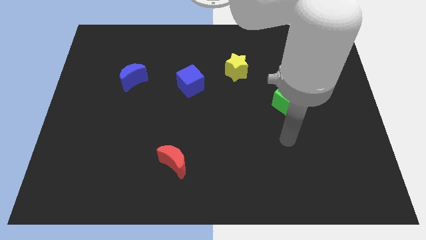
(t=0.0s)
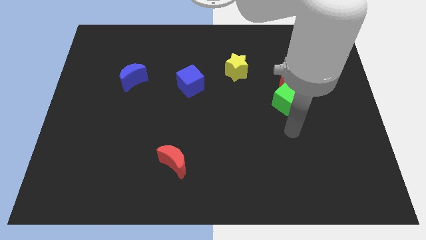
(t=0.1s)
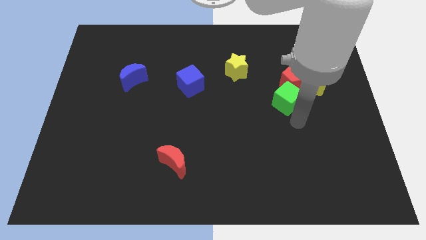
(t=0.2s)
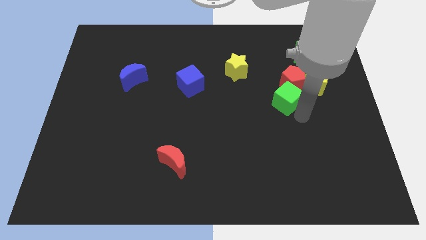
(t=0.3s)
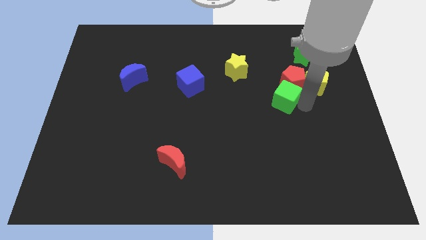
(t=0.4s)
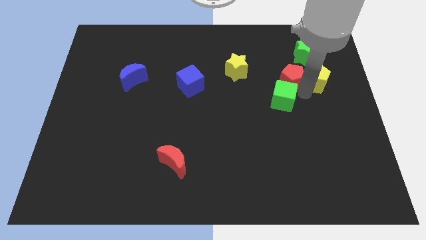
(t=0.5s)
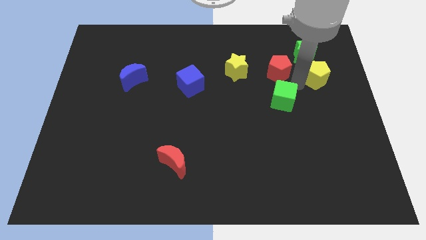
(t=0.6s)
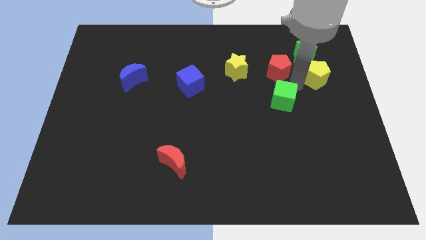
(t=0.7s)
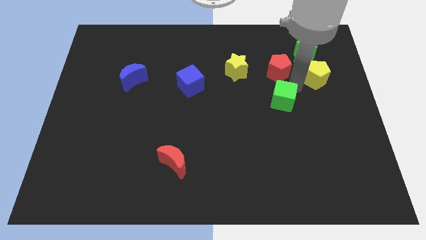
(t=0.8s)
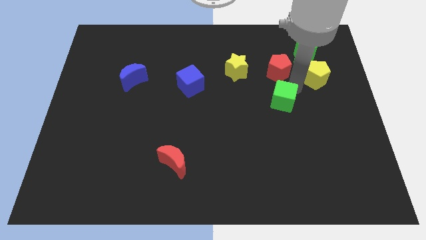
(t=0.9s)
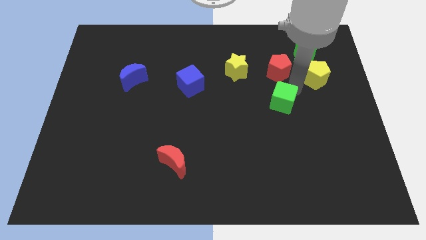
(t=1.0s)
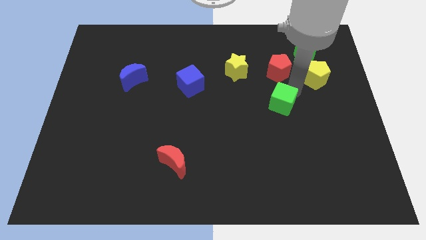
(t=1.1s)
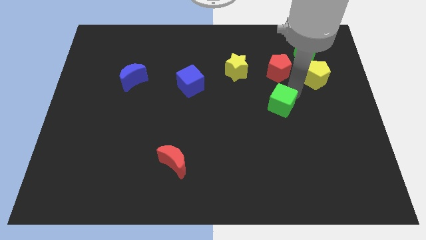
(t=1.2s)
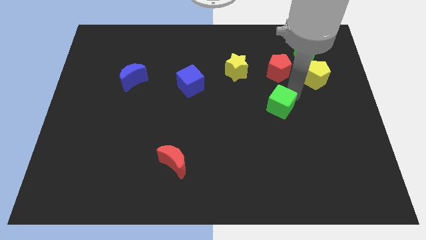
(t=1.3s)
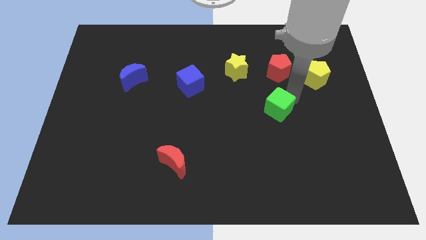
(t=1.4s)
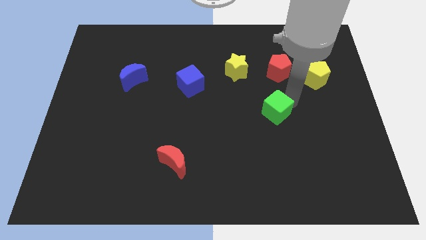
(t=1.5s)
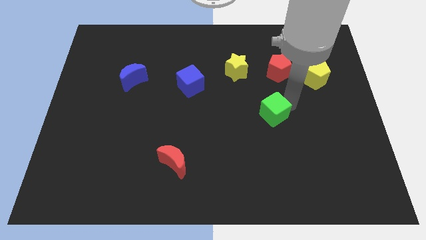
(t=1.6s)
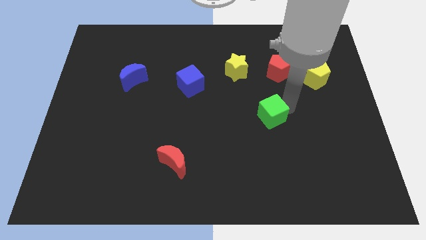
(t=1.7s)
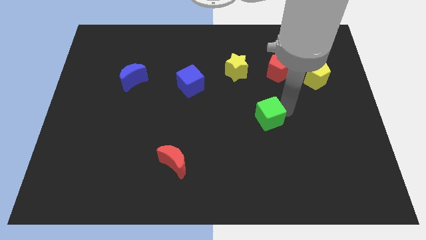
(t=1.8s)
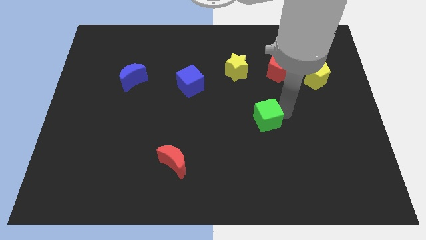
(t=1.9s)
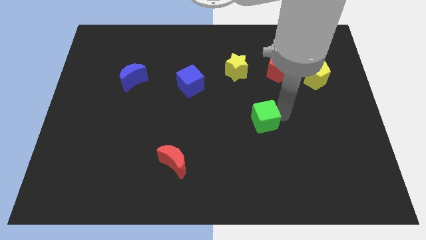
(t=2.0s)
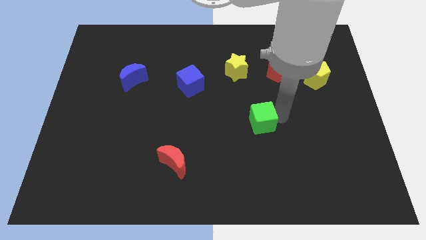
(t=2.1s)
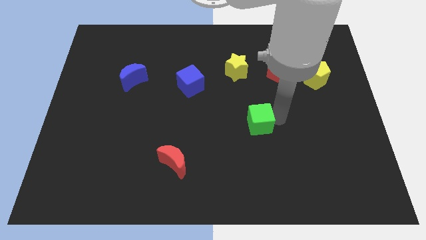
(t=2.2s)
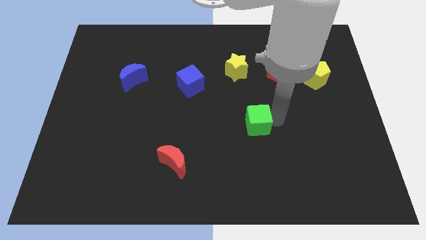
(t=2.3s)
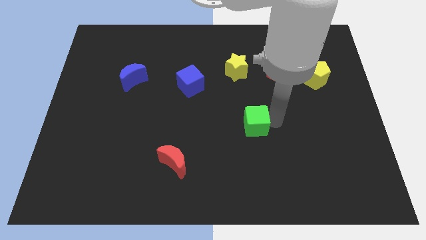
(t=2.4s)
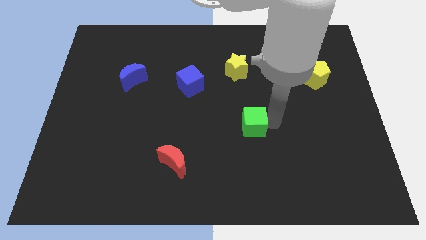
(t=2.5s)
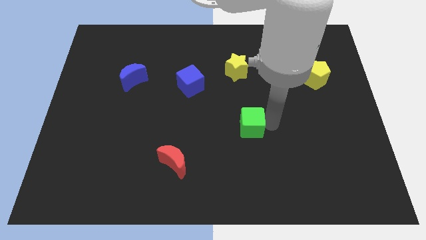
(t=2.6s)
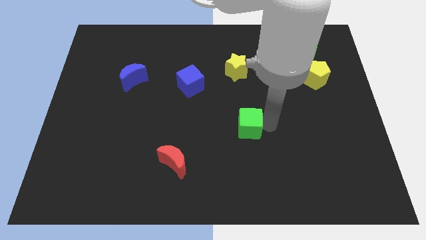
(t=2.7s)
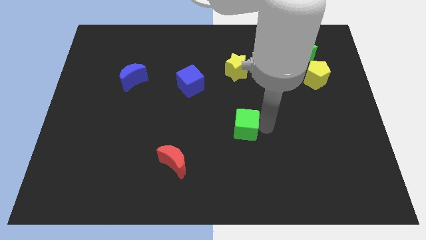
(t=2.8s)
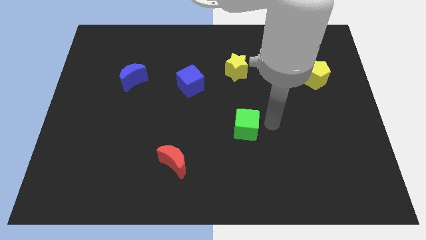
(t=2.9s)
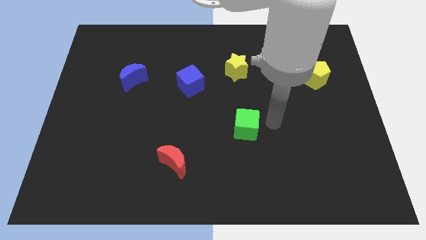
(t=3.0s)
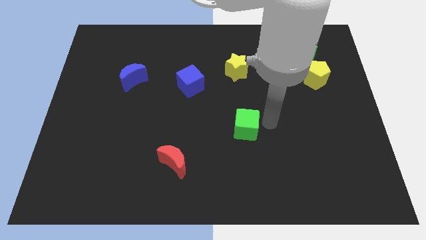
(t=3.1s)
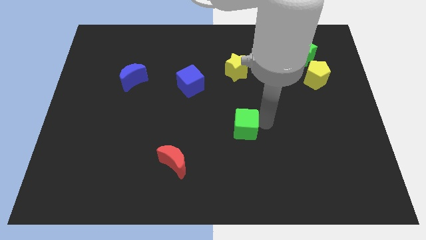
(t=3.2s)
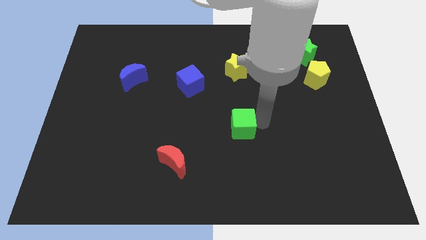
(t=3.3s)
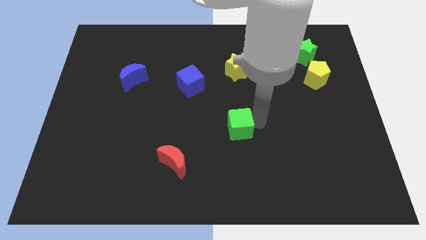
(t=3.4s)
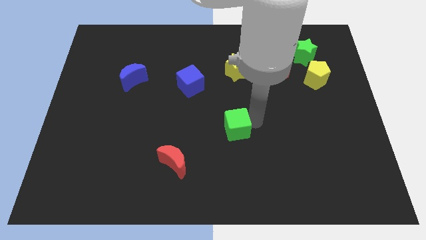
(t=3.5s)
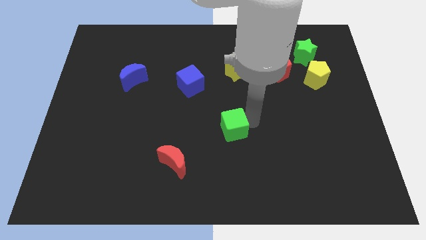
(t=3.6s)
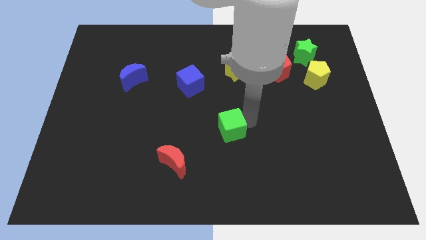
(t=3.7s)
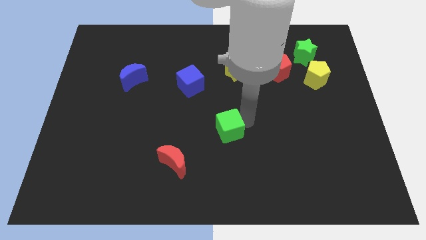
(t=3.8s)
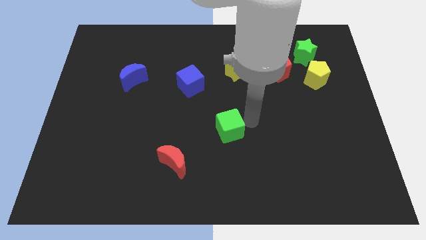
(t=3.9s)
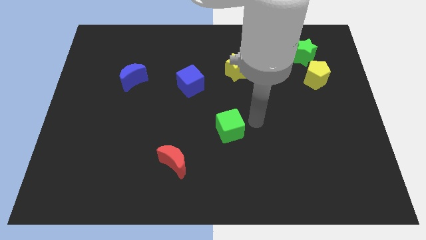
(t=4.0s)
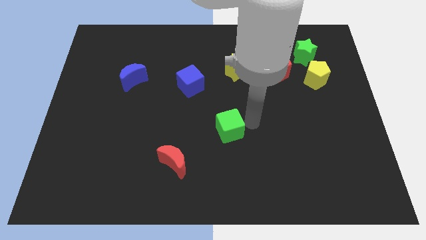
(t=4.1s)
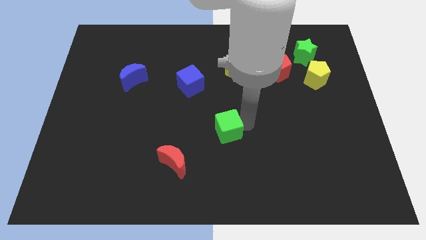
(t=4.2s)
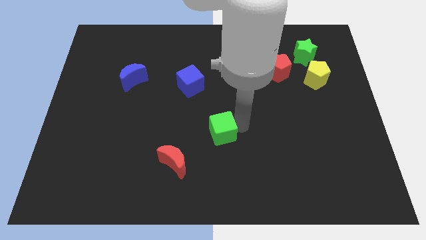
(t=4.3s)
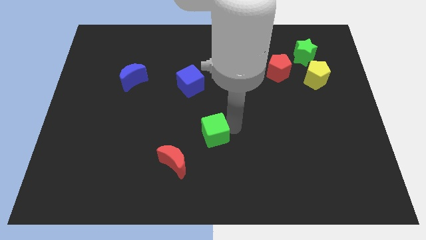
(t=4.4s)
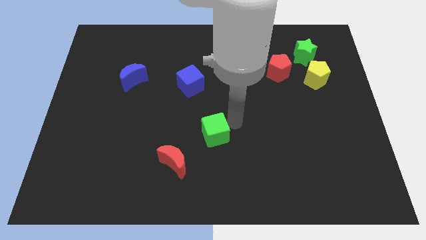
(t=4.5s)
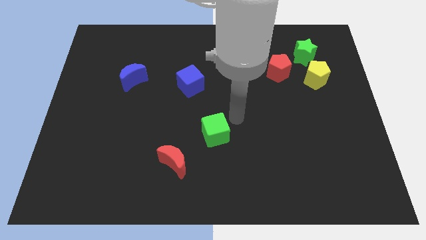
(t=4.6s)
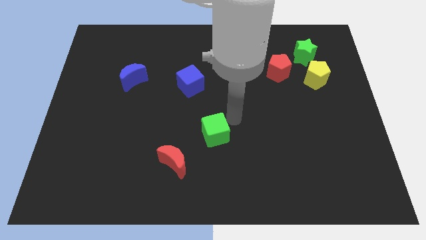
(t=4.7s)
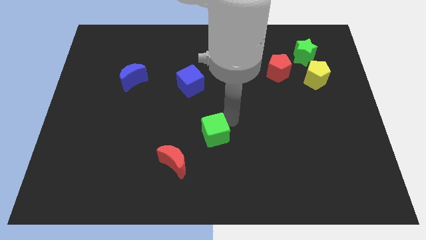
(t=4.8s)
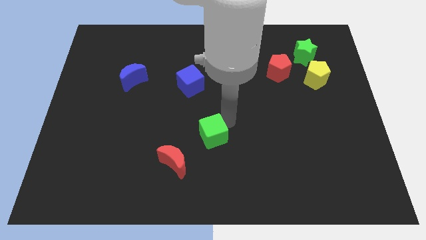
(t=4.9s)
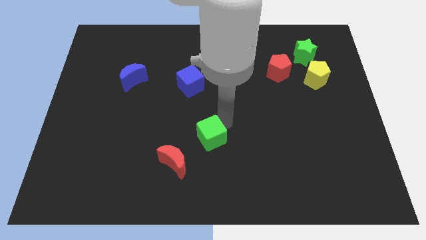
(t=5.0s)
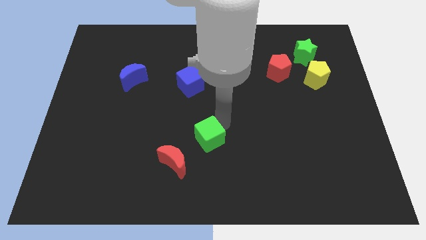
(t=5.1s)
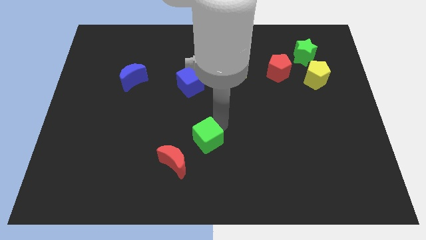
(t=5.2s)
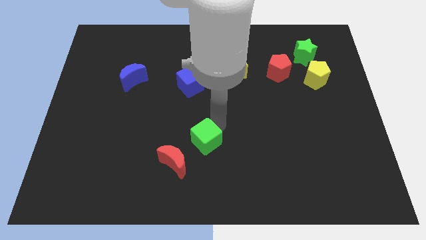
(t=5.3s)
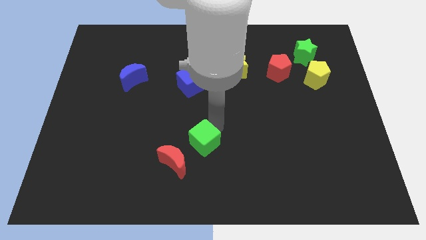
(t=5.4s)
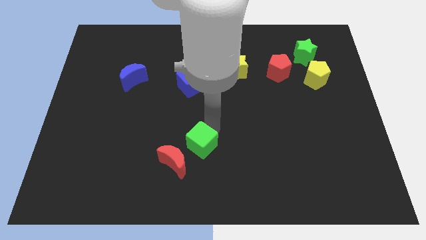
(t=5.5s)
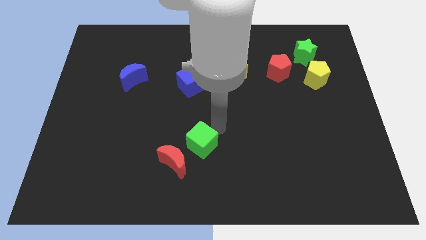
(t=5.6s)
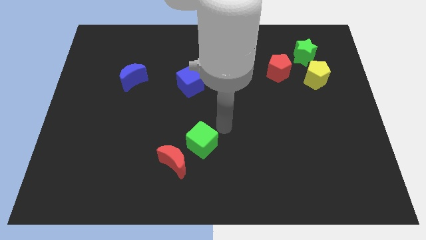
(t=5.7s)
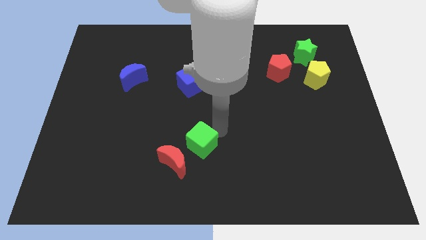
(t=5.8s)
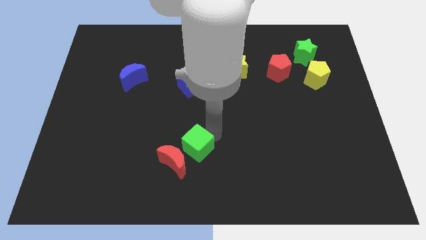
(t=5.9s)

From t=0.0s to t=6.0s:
push the green cube close to the red moon

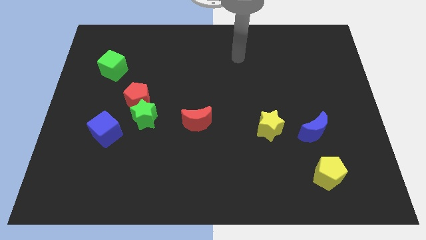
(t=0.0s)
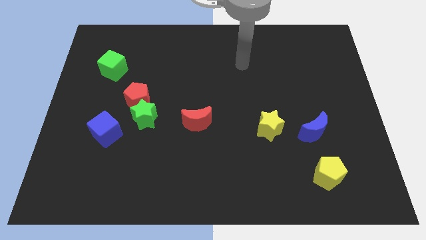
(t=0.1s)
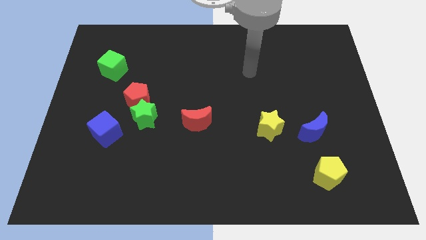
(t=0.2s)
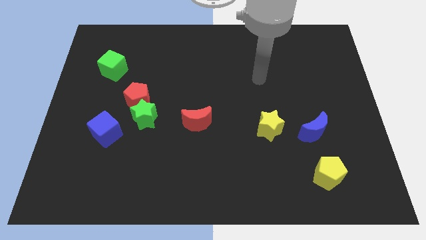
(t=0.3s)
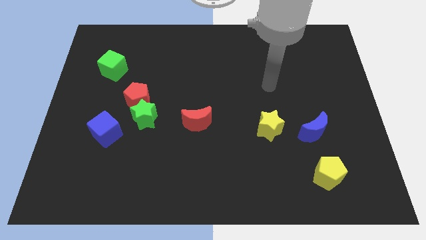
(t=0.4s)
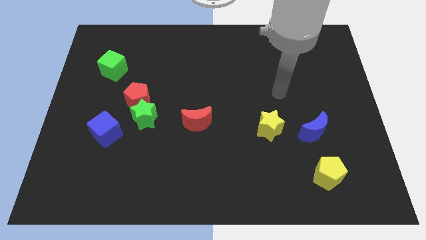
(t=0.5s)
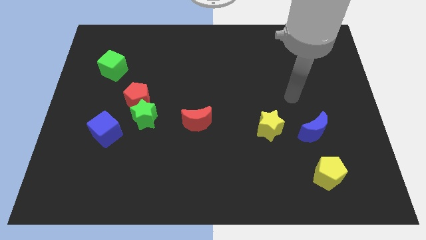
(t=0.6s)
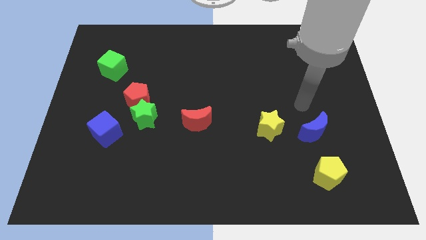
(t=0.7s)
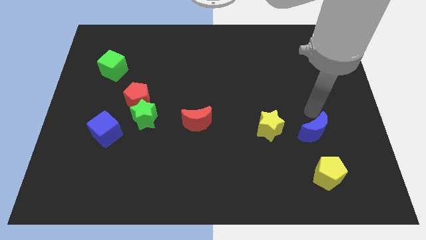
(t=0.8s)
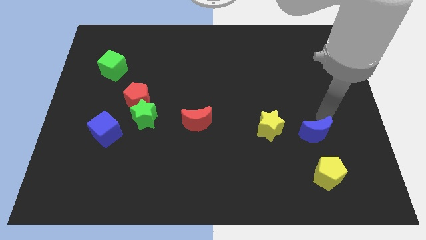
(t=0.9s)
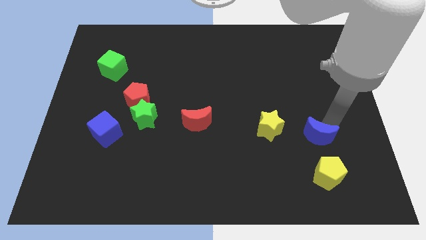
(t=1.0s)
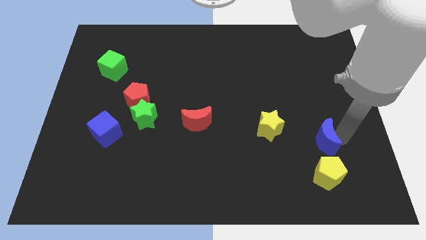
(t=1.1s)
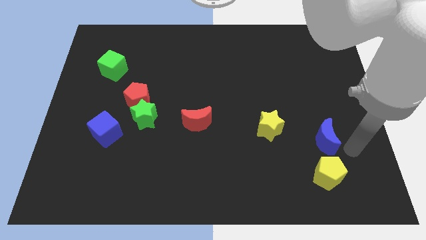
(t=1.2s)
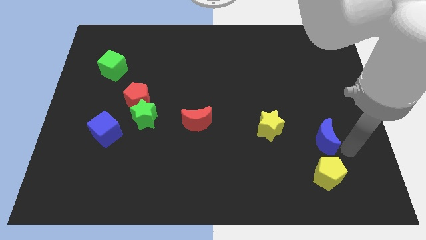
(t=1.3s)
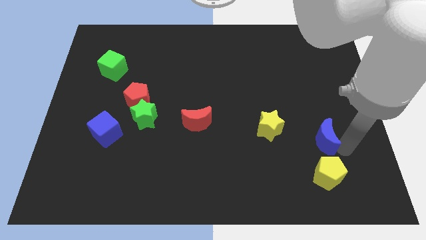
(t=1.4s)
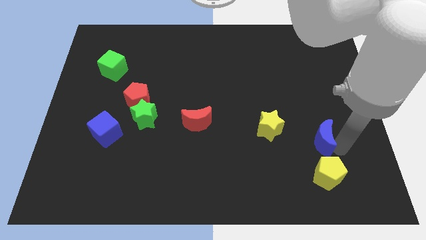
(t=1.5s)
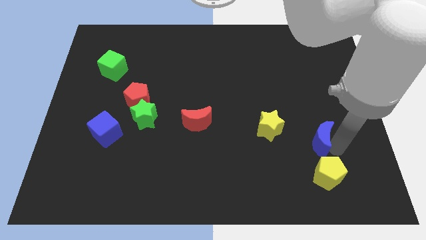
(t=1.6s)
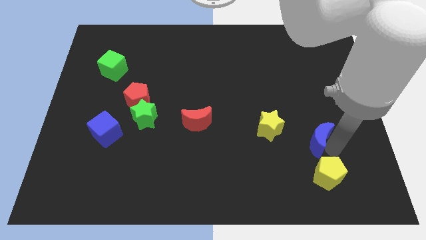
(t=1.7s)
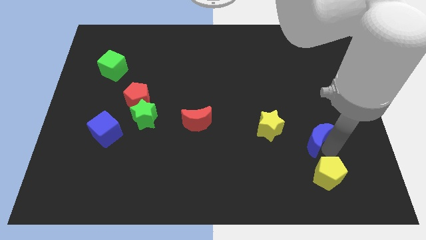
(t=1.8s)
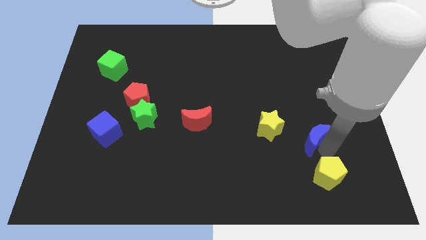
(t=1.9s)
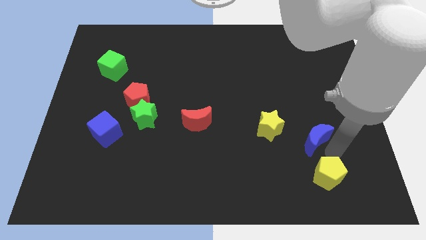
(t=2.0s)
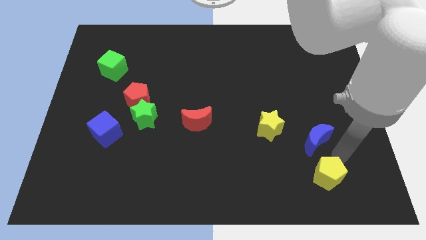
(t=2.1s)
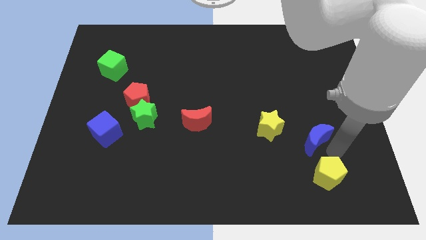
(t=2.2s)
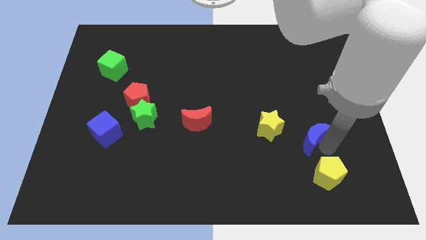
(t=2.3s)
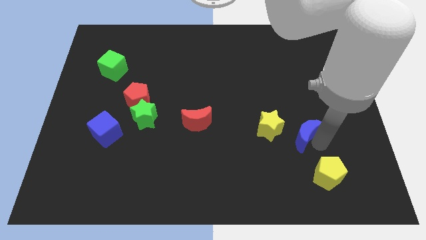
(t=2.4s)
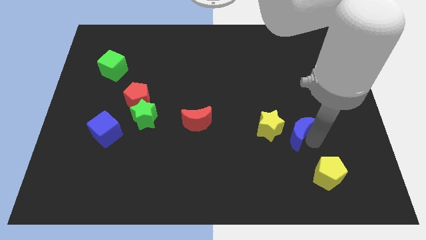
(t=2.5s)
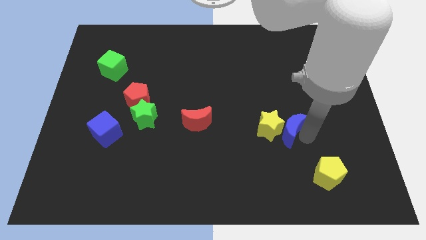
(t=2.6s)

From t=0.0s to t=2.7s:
move the blue moon next to the yellow star
